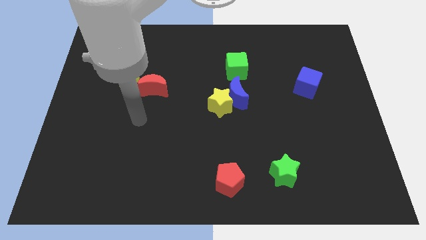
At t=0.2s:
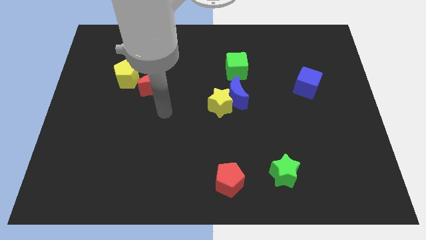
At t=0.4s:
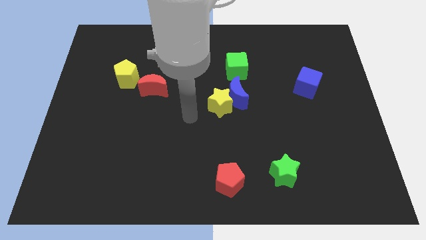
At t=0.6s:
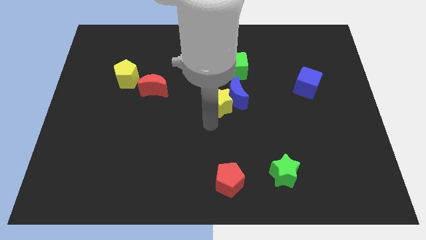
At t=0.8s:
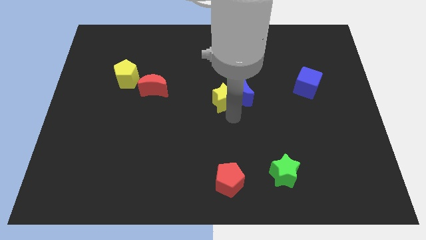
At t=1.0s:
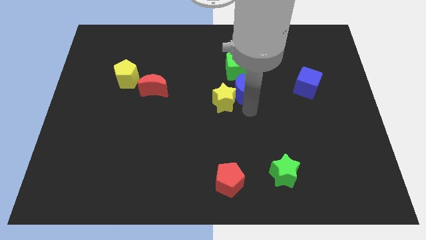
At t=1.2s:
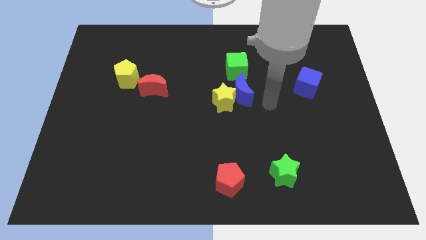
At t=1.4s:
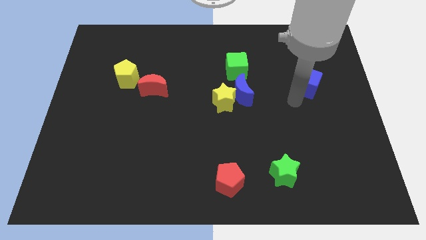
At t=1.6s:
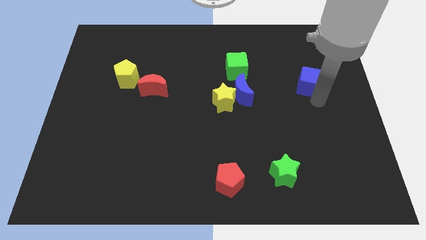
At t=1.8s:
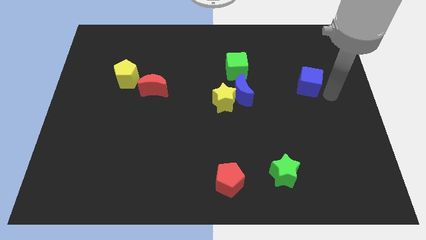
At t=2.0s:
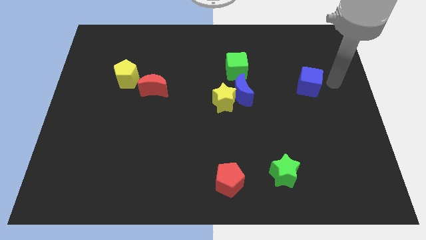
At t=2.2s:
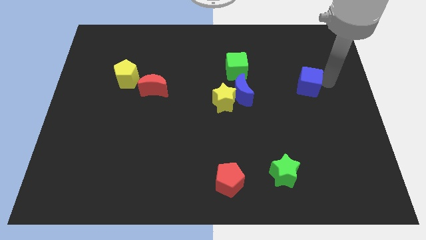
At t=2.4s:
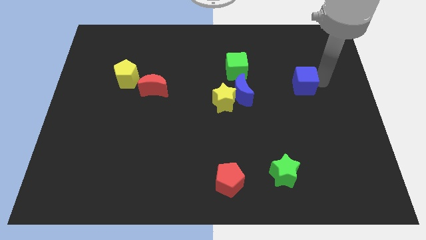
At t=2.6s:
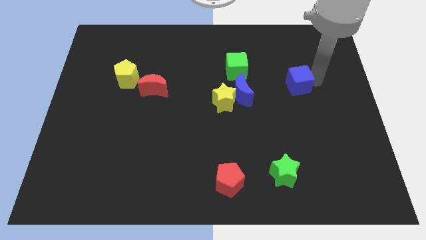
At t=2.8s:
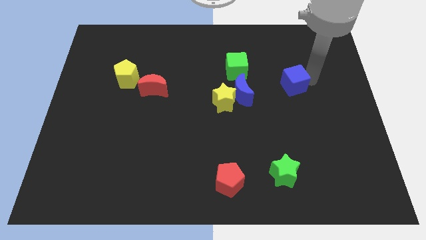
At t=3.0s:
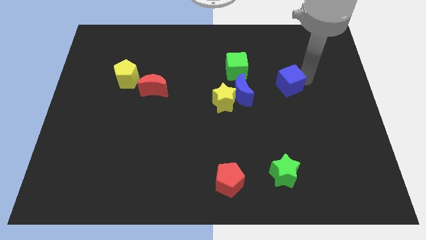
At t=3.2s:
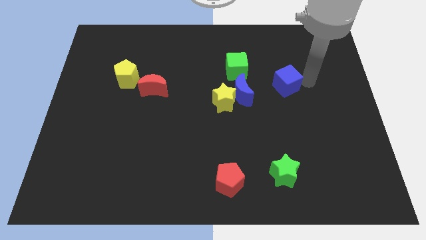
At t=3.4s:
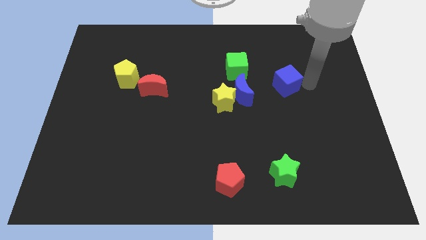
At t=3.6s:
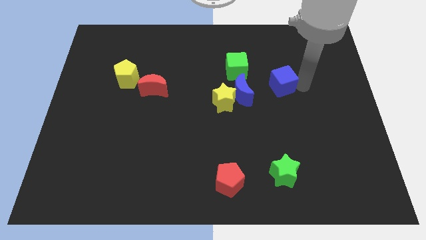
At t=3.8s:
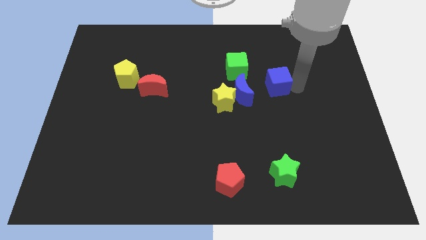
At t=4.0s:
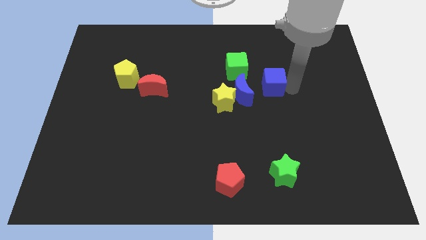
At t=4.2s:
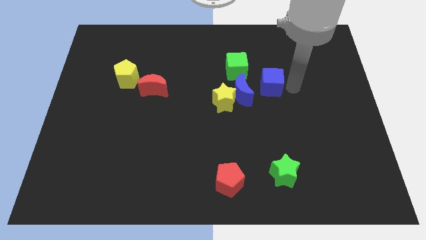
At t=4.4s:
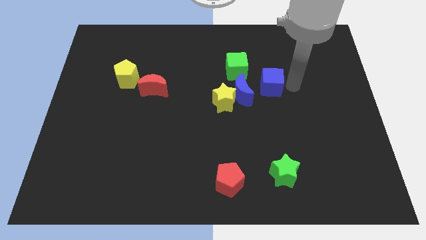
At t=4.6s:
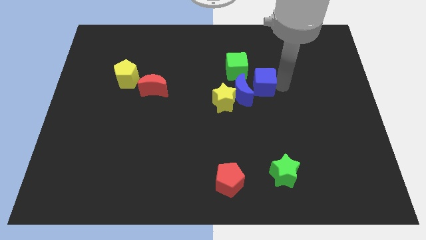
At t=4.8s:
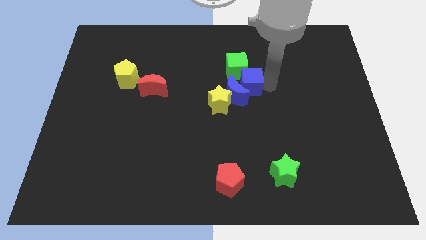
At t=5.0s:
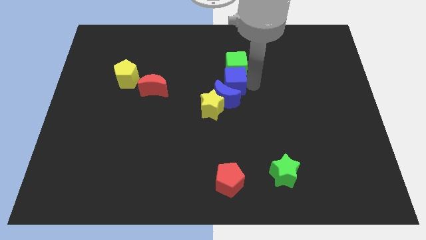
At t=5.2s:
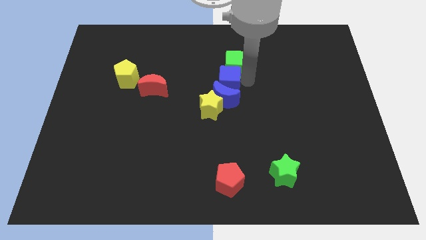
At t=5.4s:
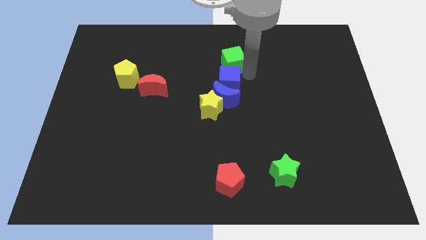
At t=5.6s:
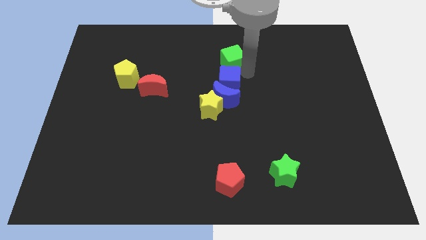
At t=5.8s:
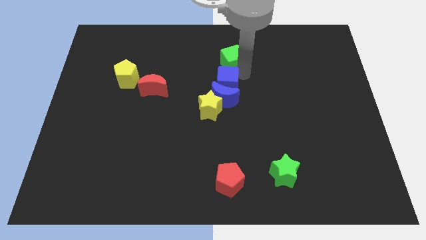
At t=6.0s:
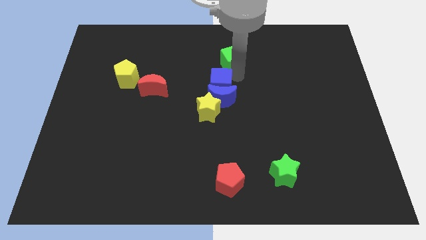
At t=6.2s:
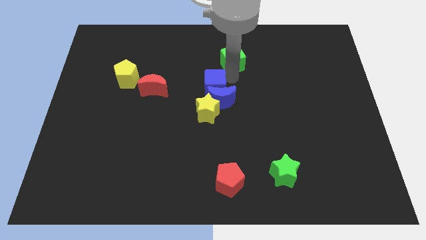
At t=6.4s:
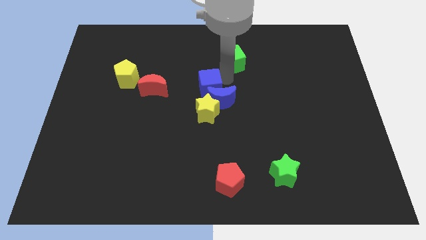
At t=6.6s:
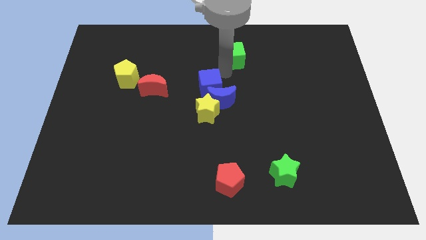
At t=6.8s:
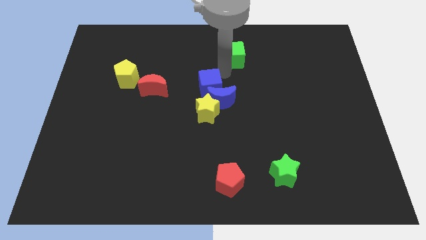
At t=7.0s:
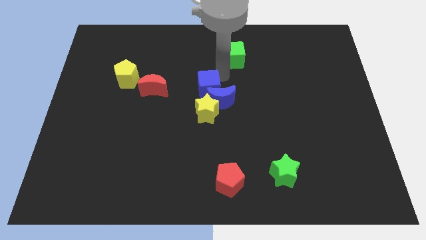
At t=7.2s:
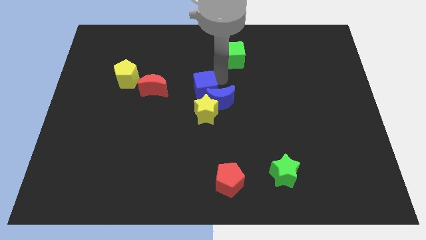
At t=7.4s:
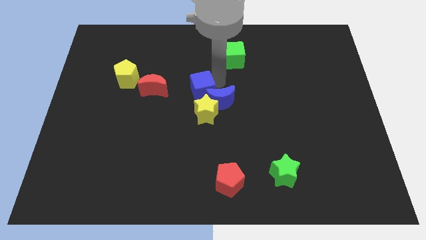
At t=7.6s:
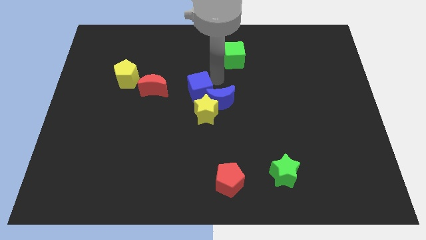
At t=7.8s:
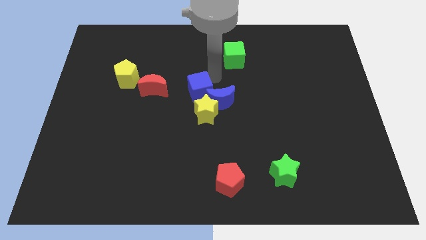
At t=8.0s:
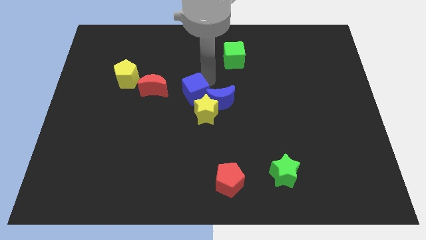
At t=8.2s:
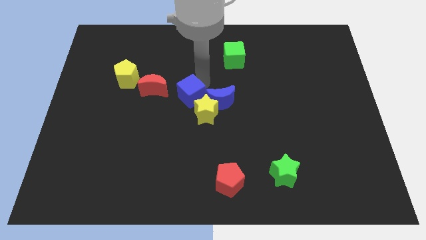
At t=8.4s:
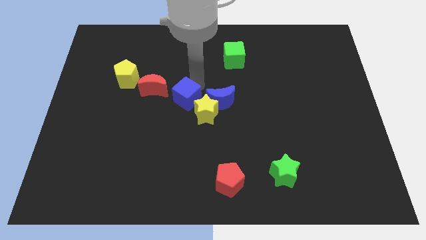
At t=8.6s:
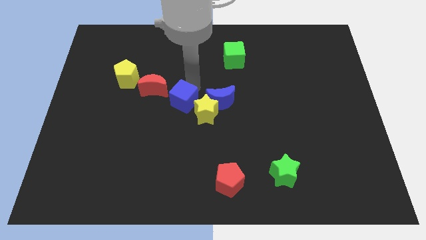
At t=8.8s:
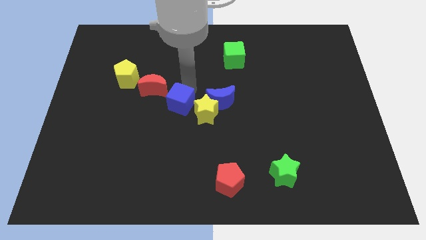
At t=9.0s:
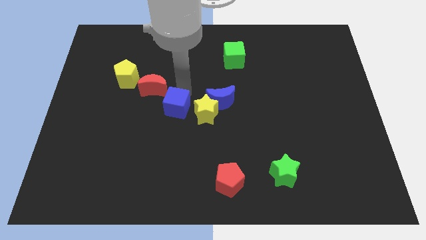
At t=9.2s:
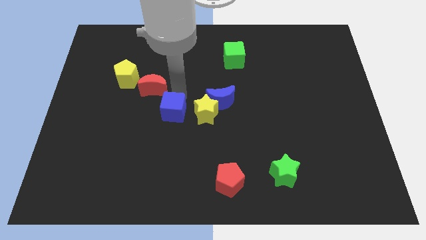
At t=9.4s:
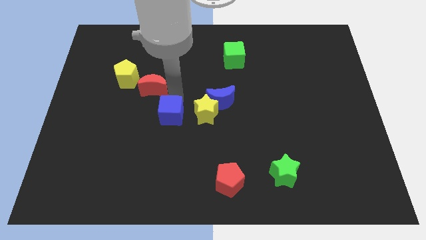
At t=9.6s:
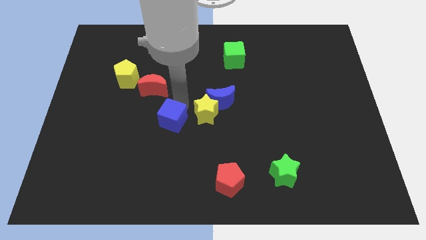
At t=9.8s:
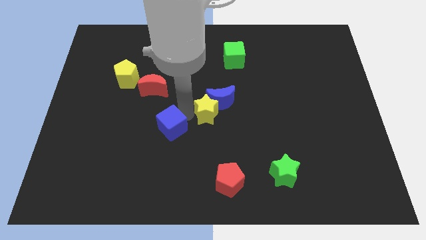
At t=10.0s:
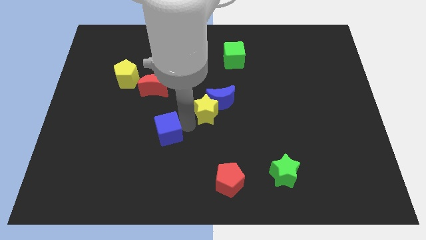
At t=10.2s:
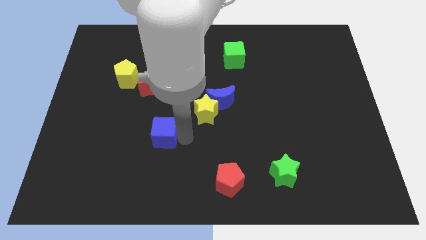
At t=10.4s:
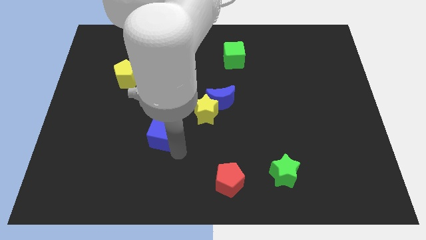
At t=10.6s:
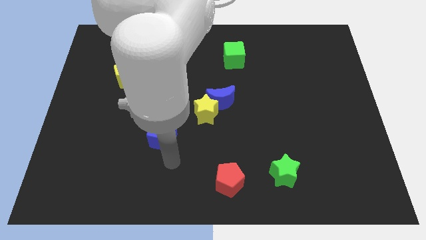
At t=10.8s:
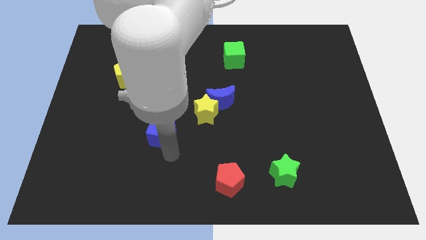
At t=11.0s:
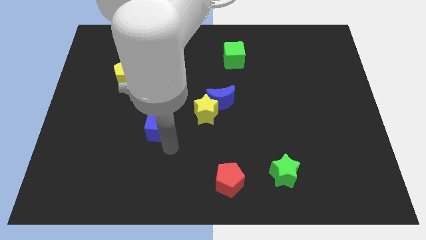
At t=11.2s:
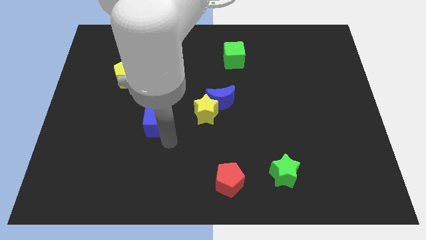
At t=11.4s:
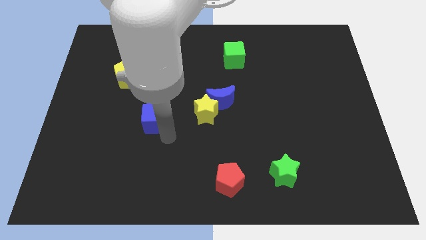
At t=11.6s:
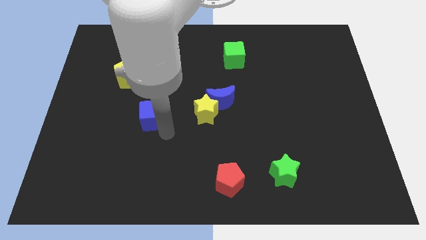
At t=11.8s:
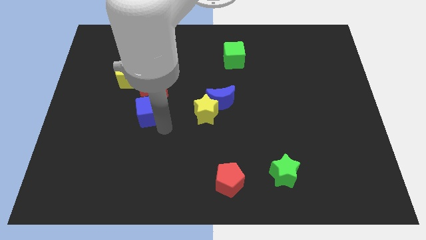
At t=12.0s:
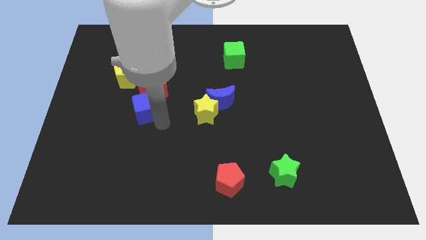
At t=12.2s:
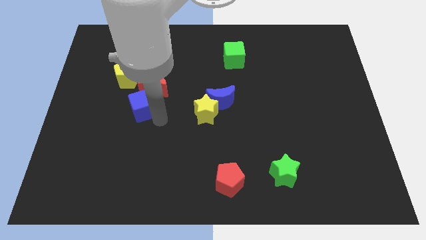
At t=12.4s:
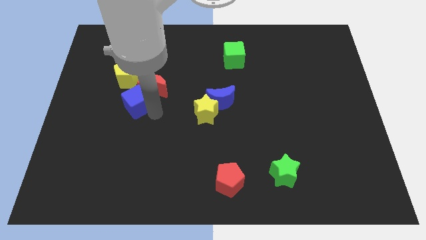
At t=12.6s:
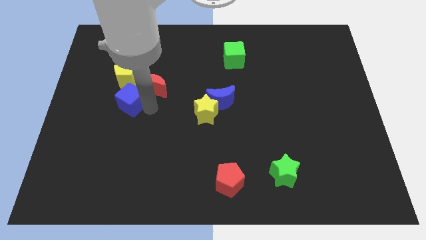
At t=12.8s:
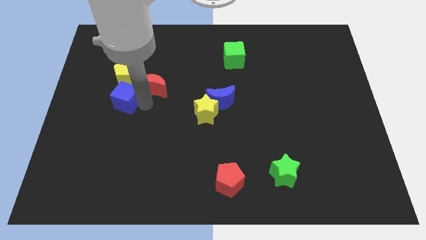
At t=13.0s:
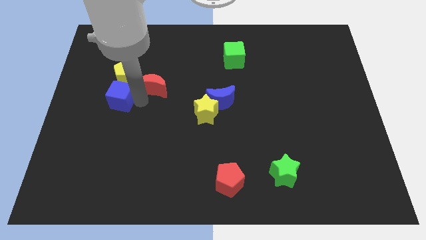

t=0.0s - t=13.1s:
put the blue cube to the bottom left of the yellow pentagon

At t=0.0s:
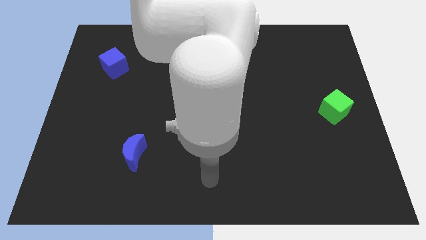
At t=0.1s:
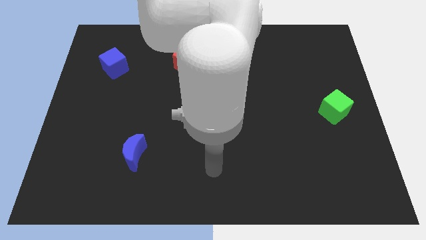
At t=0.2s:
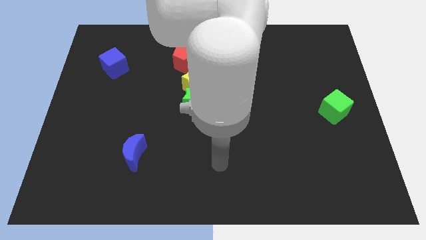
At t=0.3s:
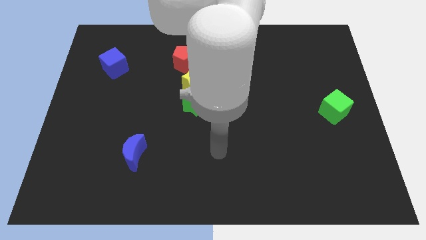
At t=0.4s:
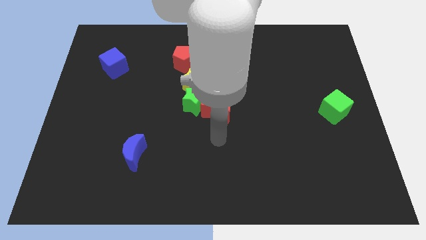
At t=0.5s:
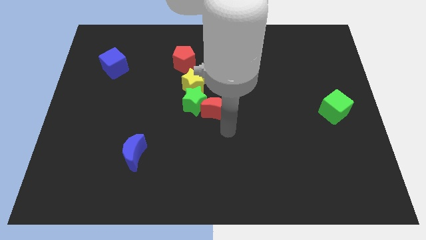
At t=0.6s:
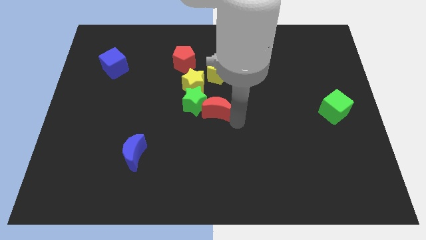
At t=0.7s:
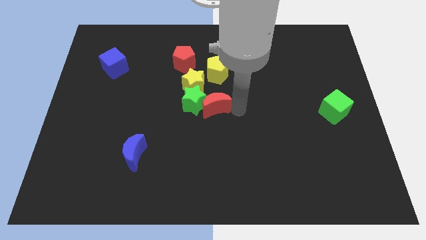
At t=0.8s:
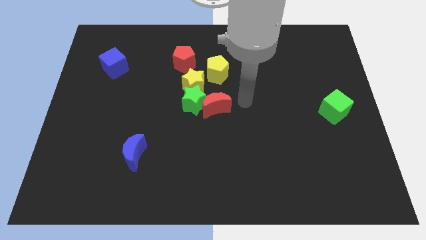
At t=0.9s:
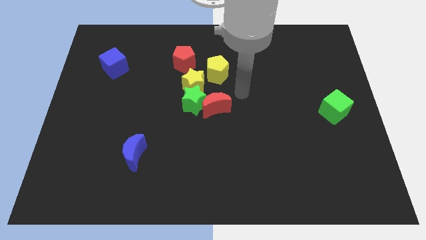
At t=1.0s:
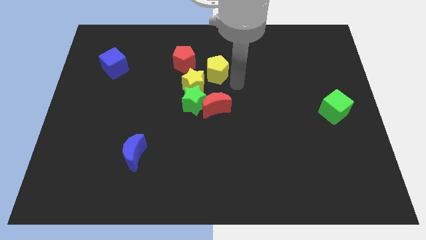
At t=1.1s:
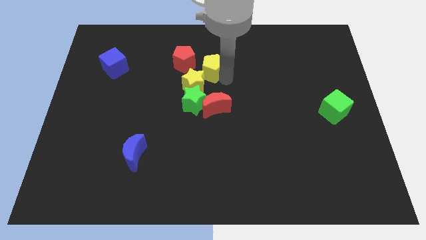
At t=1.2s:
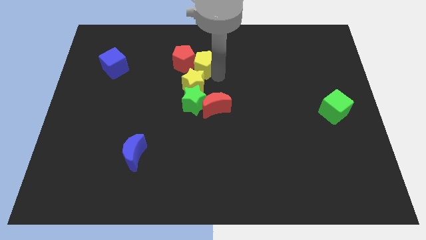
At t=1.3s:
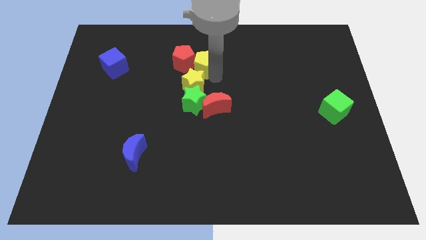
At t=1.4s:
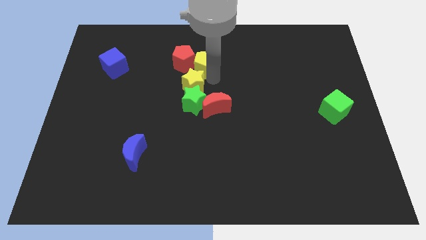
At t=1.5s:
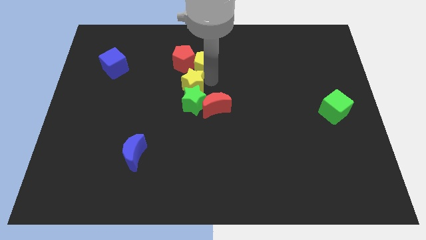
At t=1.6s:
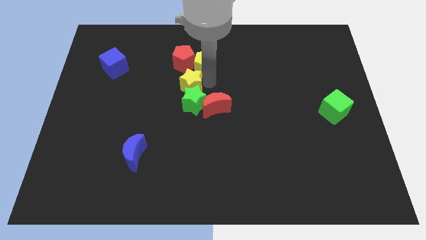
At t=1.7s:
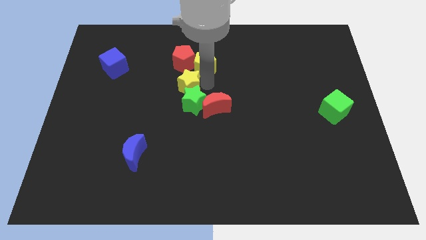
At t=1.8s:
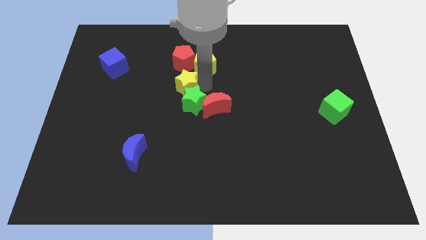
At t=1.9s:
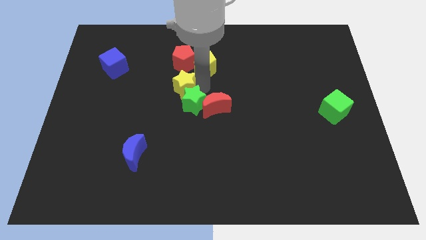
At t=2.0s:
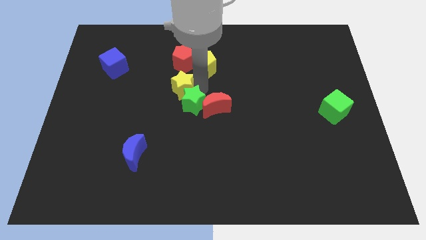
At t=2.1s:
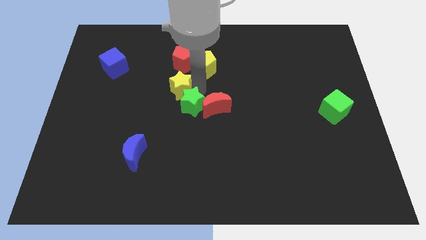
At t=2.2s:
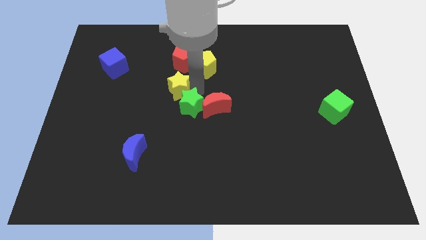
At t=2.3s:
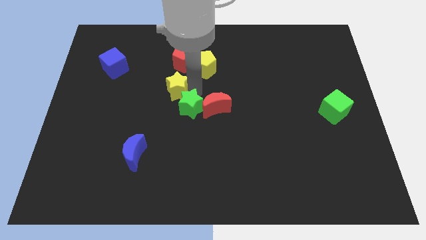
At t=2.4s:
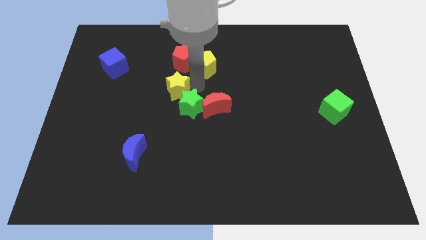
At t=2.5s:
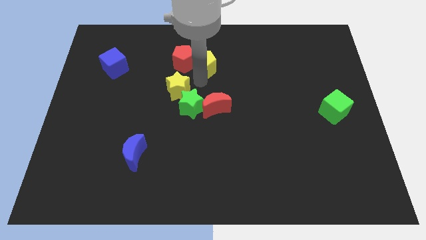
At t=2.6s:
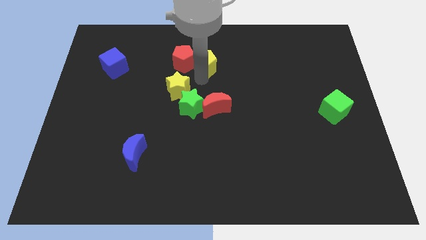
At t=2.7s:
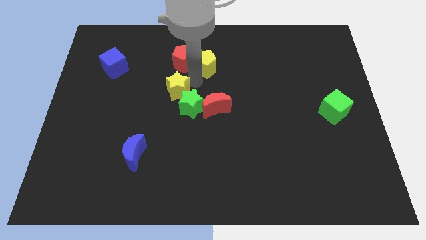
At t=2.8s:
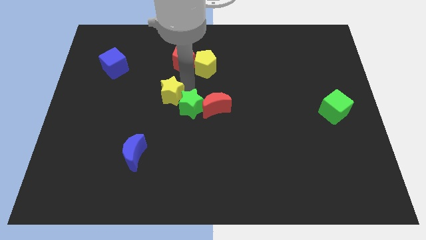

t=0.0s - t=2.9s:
slide the yellow star to the left of the green star
